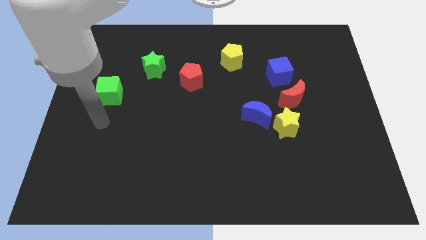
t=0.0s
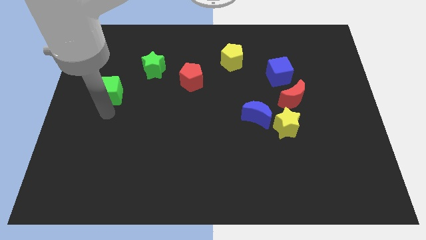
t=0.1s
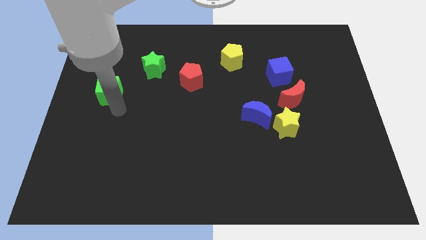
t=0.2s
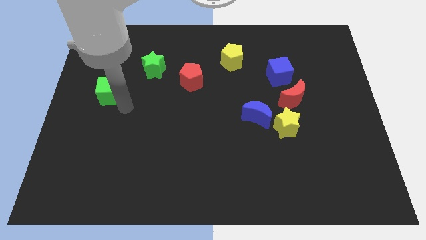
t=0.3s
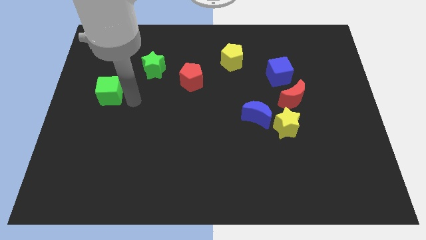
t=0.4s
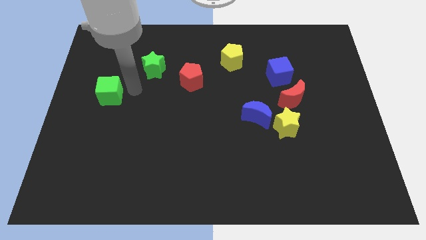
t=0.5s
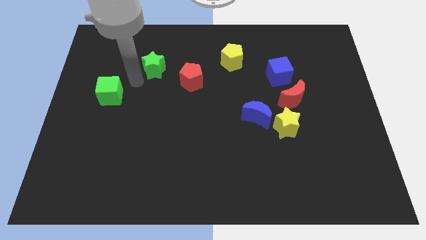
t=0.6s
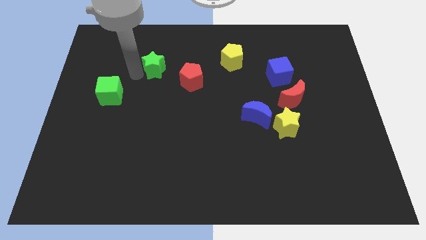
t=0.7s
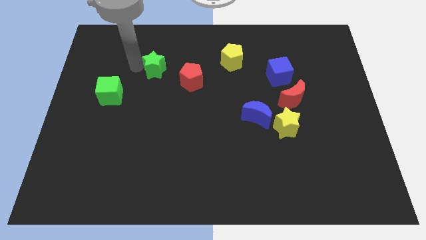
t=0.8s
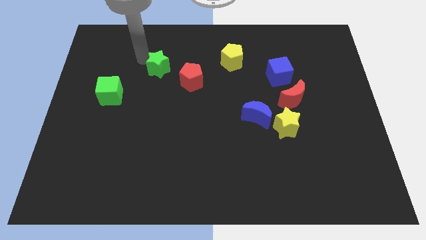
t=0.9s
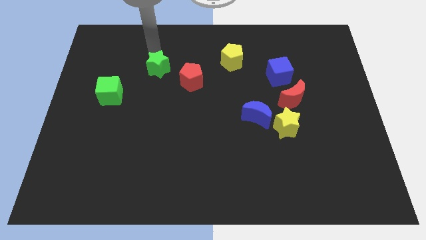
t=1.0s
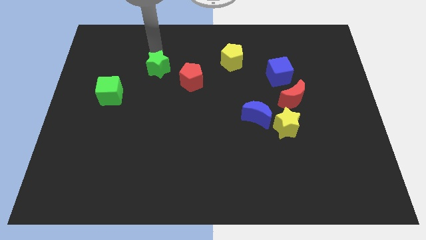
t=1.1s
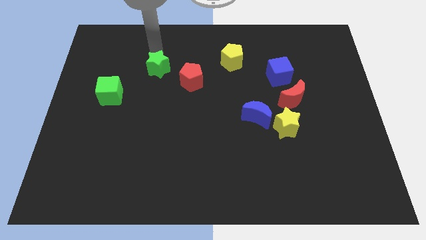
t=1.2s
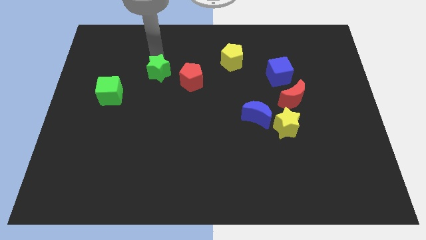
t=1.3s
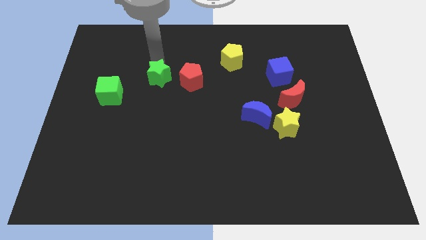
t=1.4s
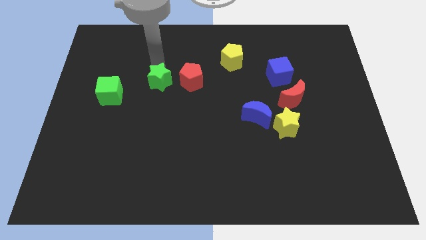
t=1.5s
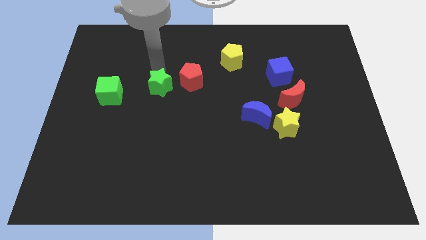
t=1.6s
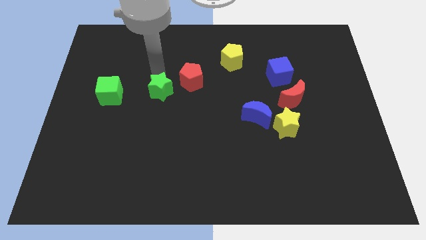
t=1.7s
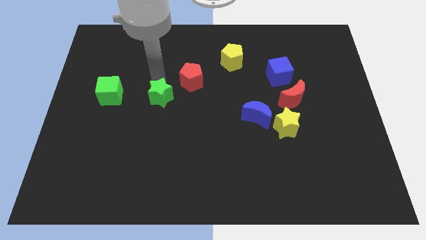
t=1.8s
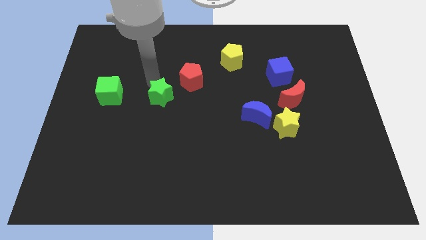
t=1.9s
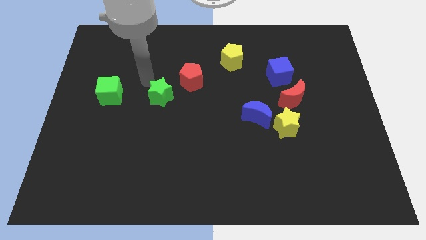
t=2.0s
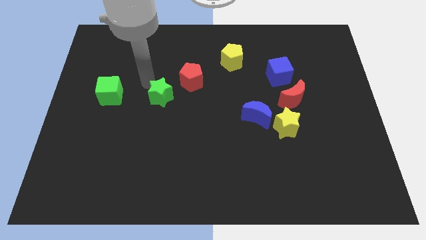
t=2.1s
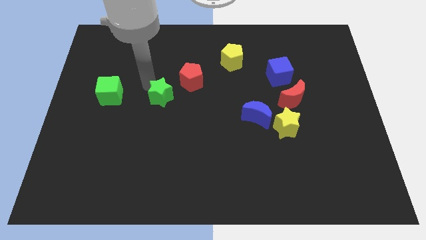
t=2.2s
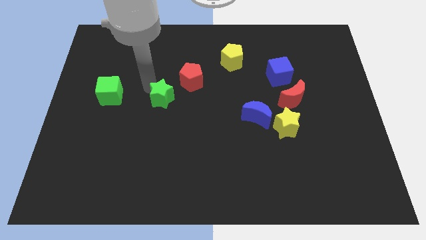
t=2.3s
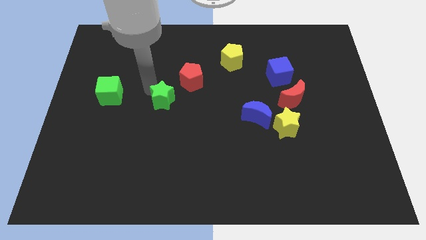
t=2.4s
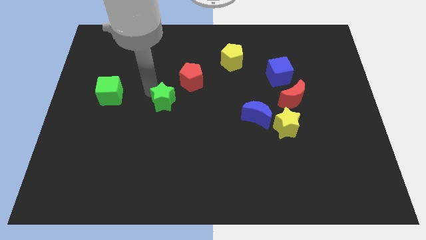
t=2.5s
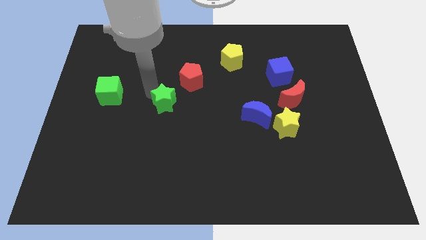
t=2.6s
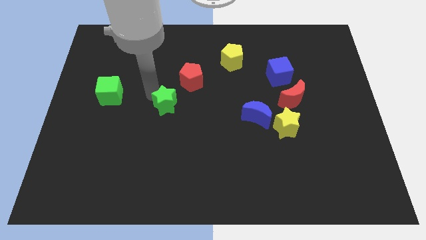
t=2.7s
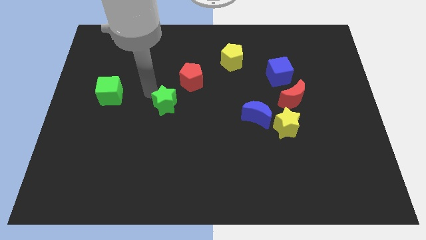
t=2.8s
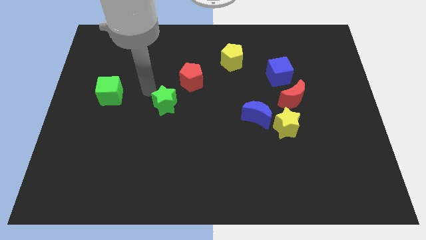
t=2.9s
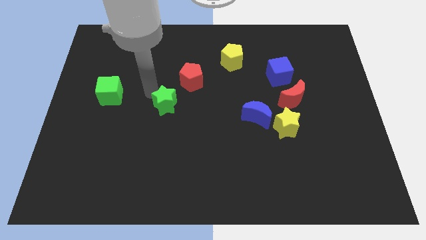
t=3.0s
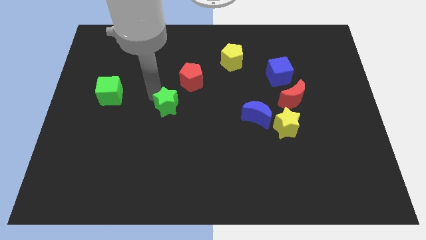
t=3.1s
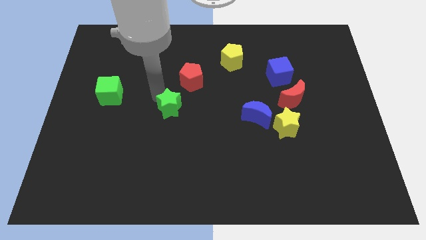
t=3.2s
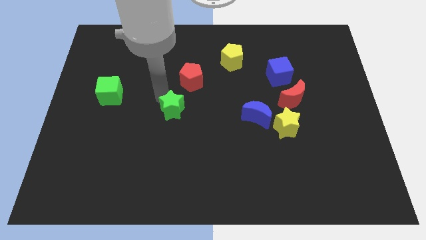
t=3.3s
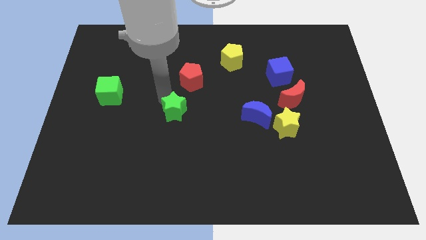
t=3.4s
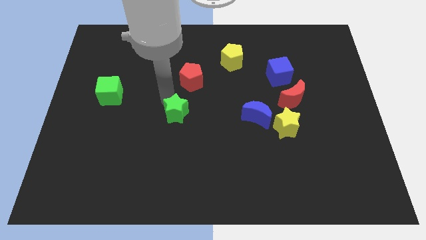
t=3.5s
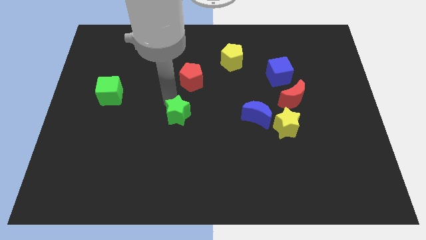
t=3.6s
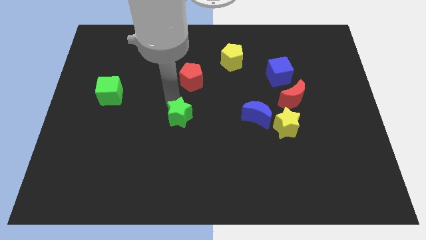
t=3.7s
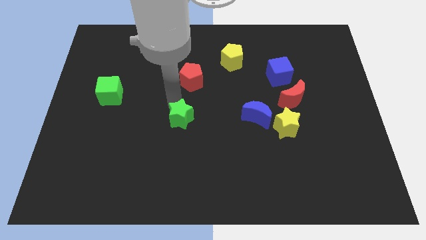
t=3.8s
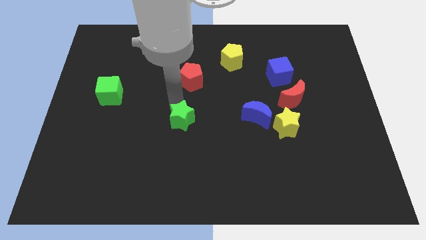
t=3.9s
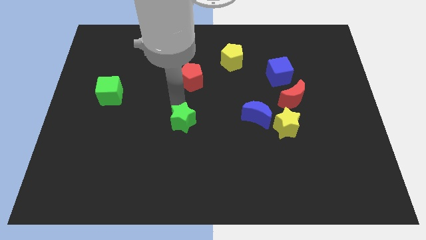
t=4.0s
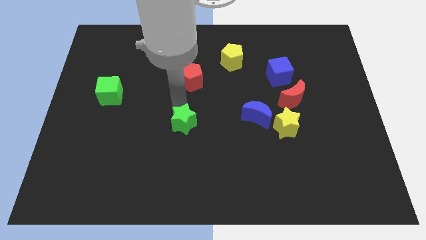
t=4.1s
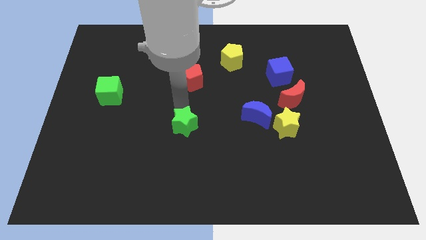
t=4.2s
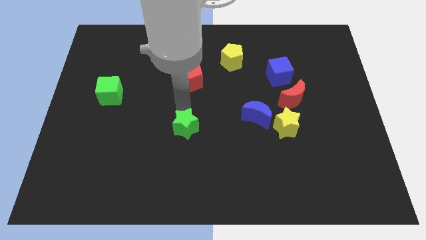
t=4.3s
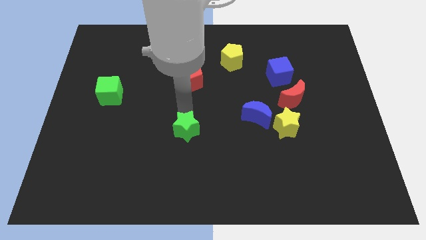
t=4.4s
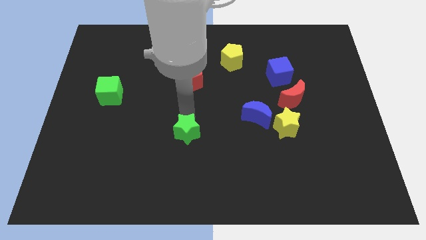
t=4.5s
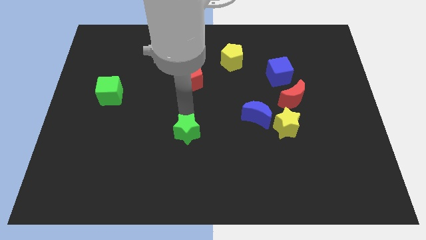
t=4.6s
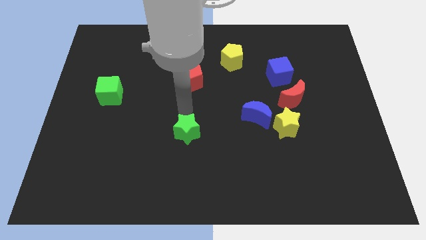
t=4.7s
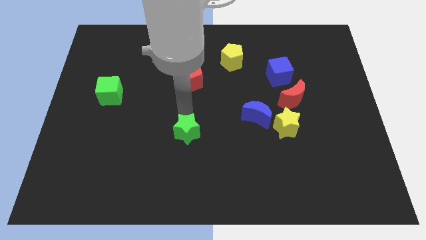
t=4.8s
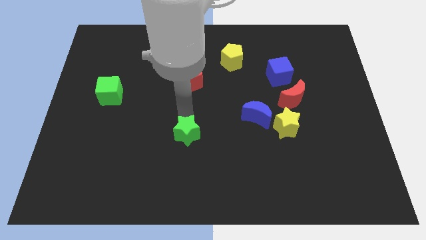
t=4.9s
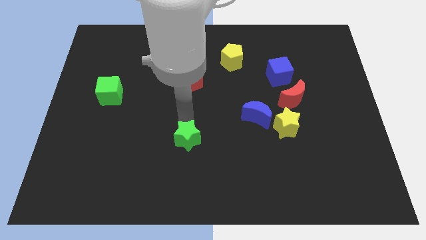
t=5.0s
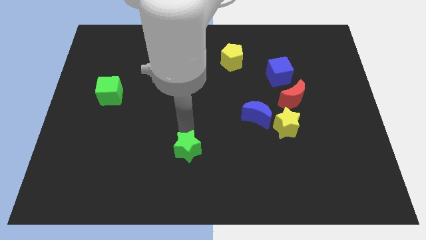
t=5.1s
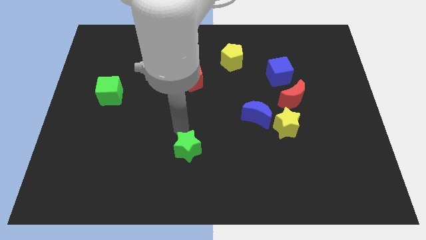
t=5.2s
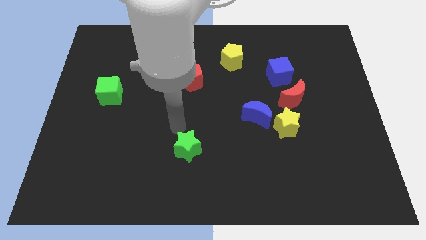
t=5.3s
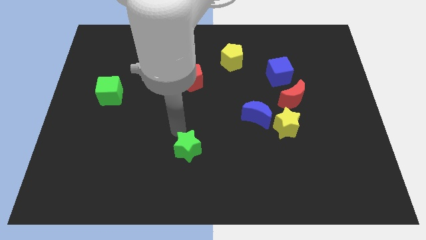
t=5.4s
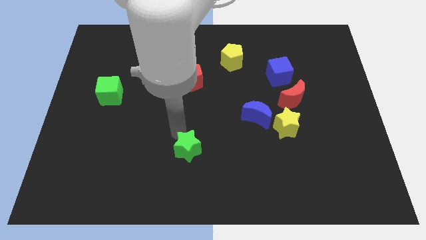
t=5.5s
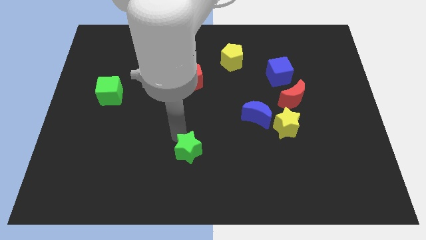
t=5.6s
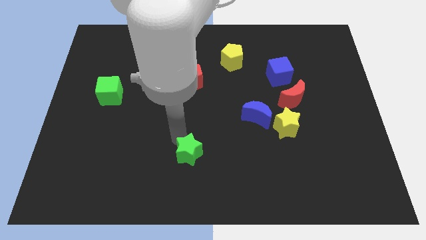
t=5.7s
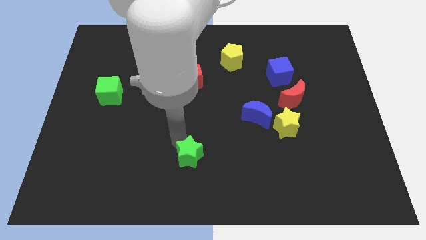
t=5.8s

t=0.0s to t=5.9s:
slide the green star to the bottom
